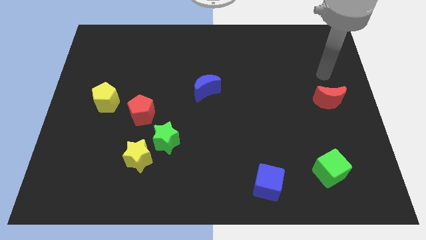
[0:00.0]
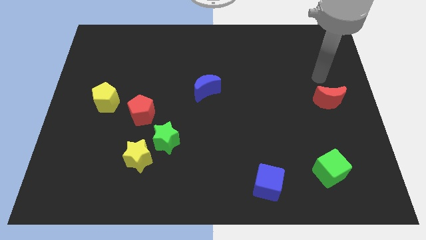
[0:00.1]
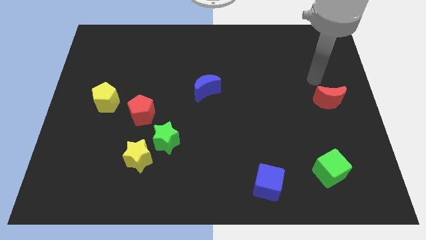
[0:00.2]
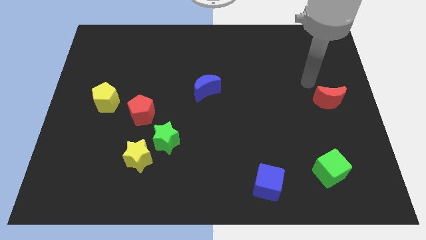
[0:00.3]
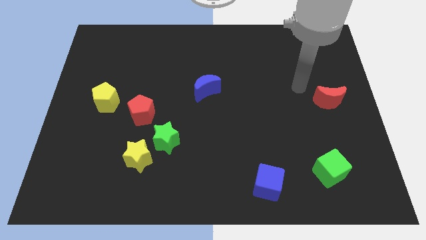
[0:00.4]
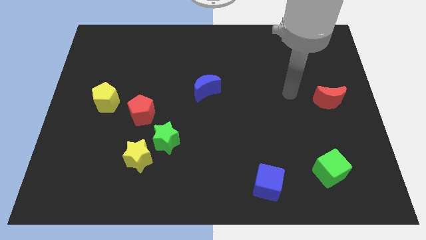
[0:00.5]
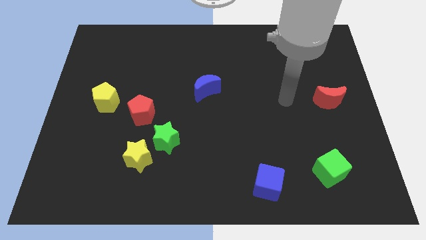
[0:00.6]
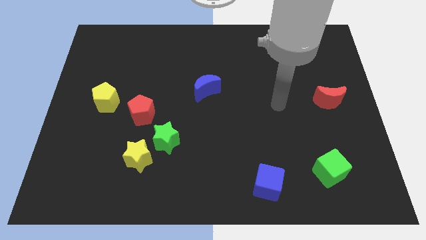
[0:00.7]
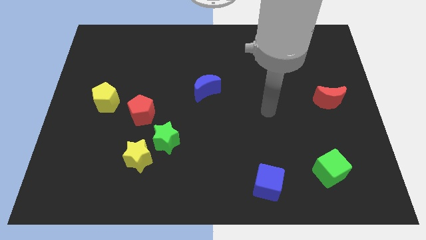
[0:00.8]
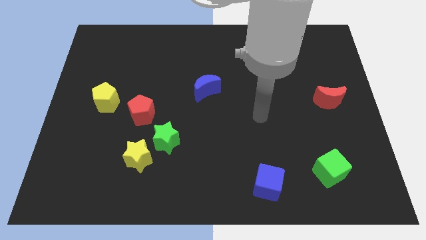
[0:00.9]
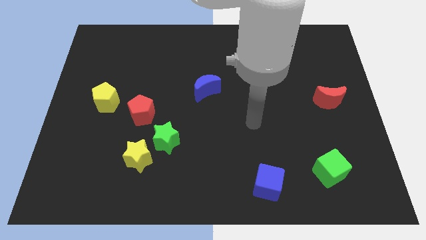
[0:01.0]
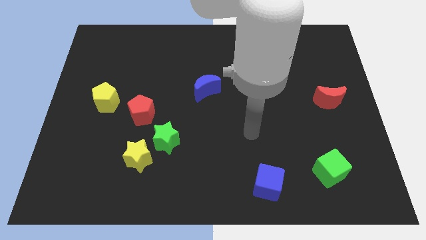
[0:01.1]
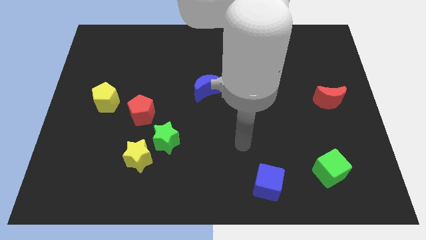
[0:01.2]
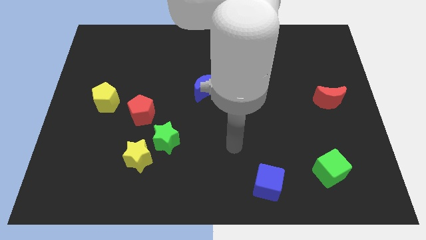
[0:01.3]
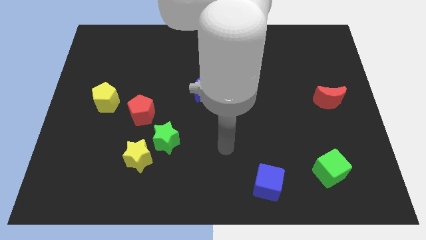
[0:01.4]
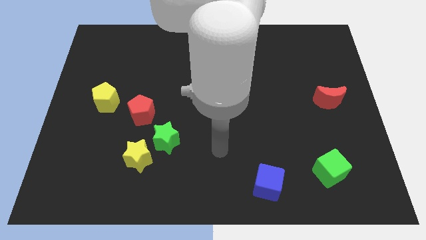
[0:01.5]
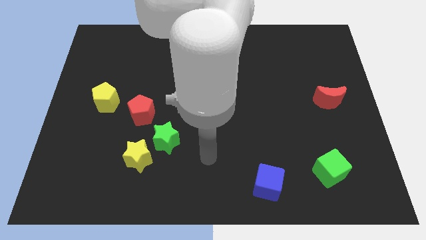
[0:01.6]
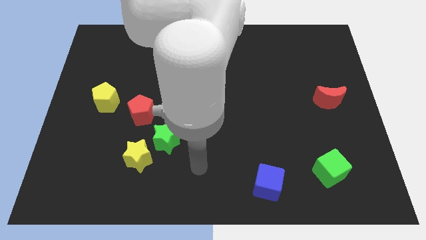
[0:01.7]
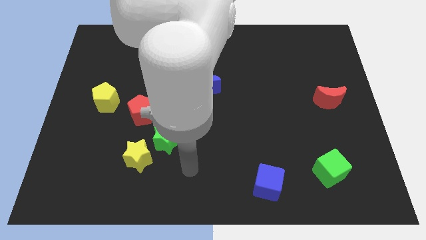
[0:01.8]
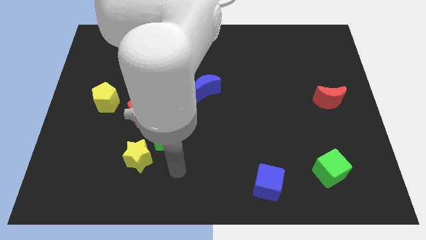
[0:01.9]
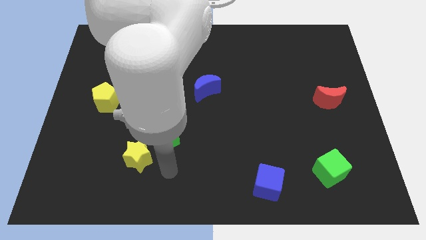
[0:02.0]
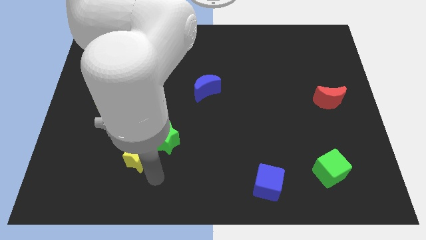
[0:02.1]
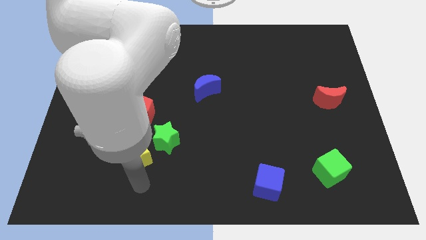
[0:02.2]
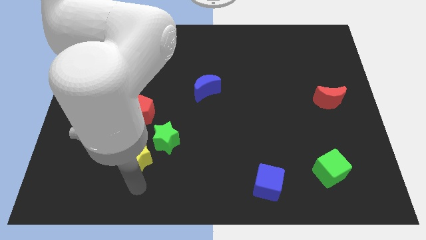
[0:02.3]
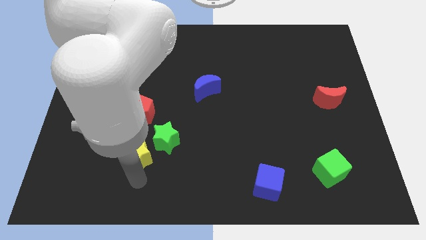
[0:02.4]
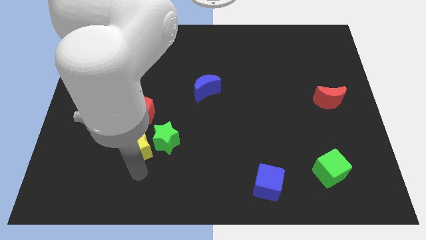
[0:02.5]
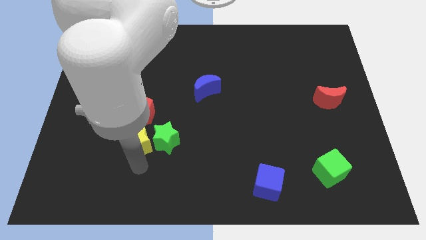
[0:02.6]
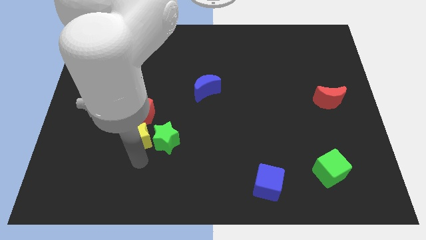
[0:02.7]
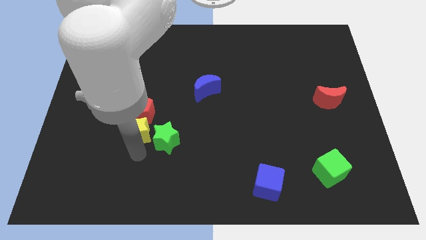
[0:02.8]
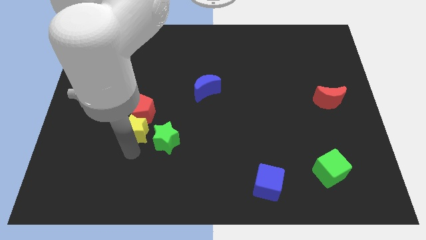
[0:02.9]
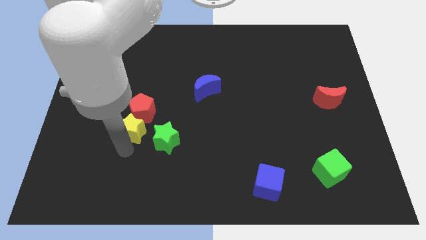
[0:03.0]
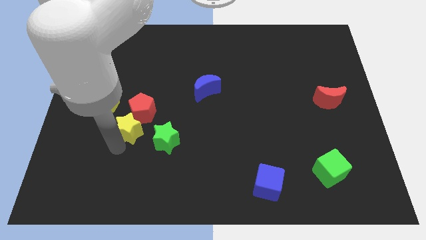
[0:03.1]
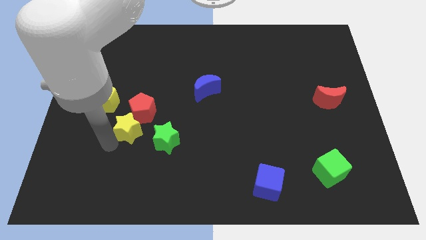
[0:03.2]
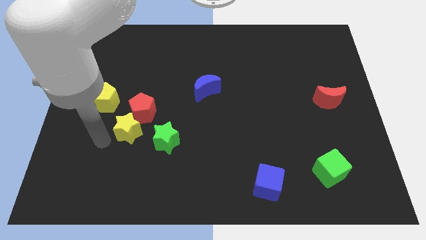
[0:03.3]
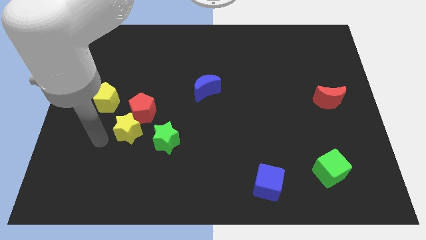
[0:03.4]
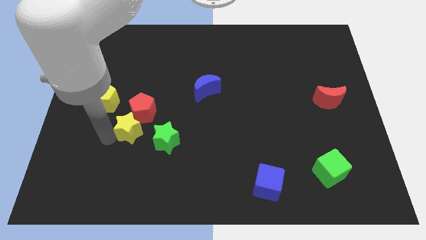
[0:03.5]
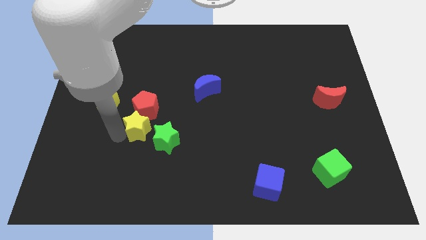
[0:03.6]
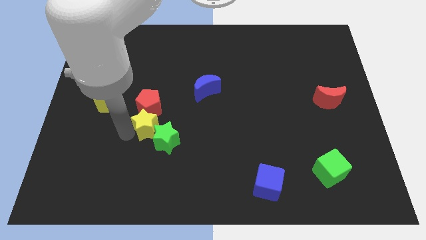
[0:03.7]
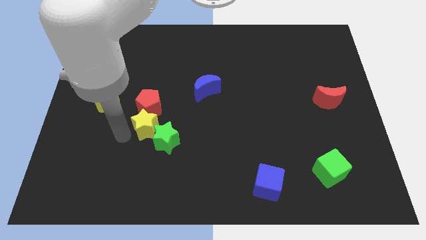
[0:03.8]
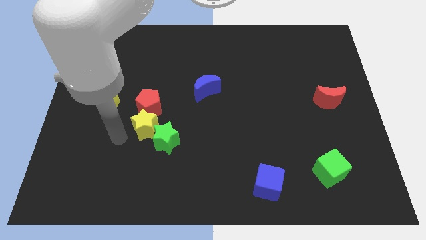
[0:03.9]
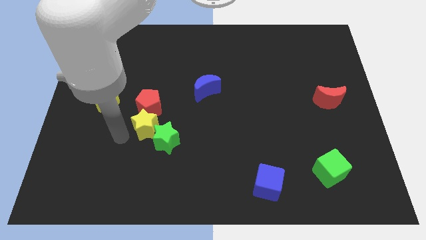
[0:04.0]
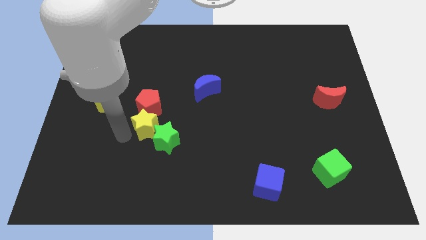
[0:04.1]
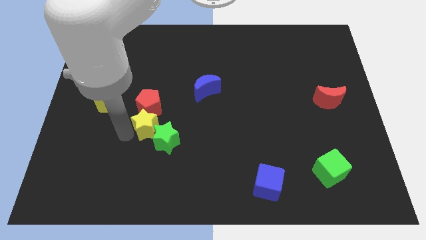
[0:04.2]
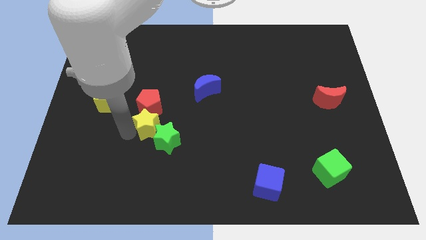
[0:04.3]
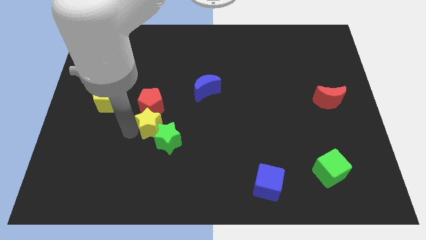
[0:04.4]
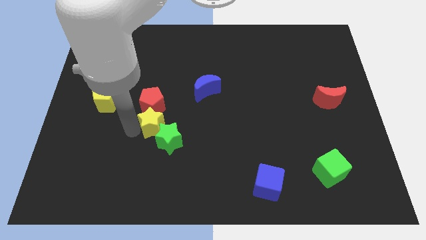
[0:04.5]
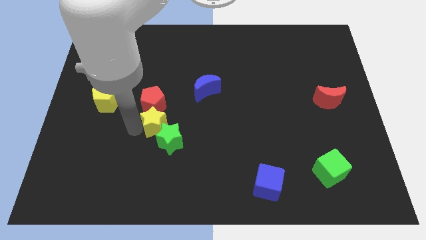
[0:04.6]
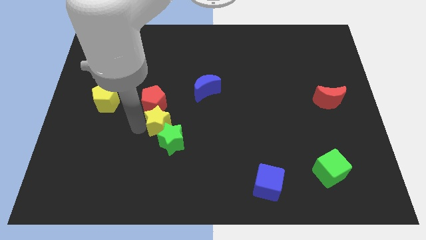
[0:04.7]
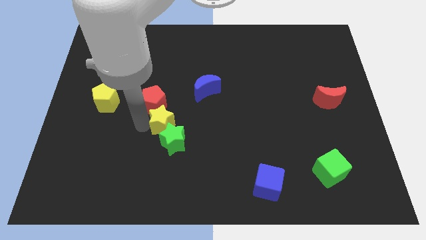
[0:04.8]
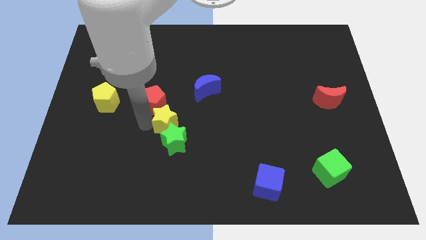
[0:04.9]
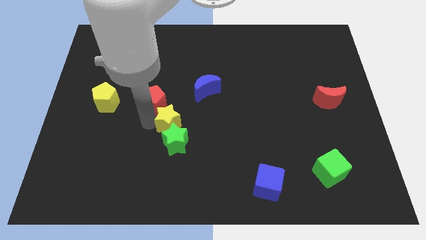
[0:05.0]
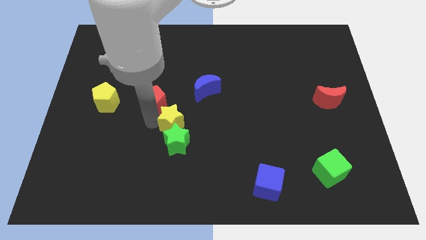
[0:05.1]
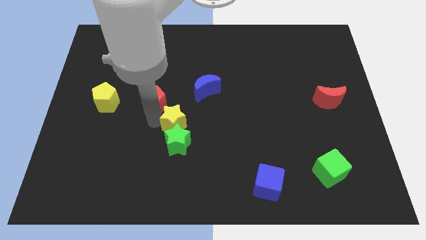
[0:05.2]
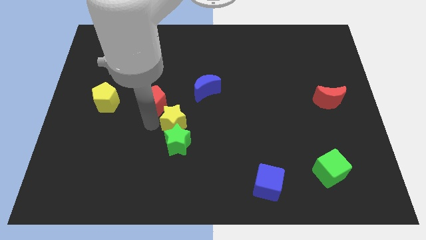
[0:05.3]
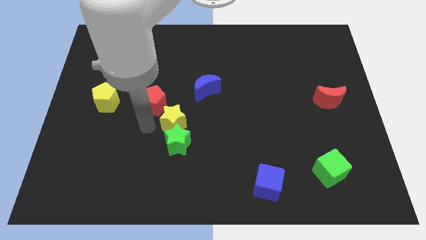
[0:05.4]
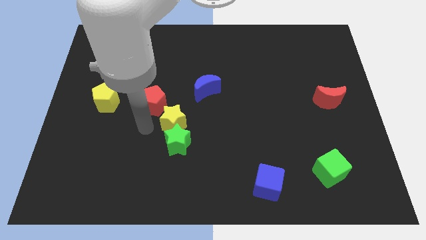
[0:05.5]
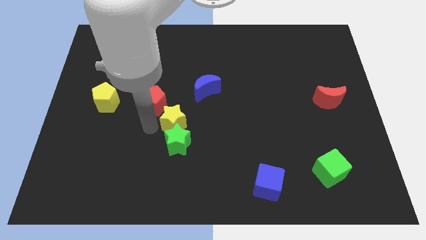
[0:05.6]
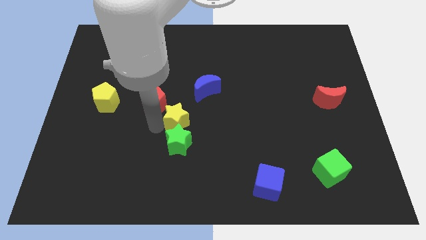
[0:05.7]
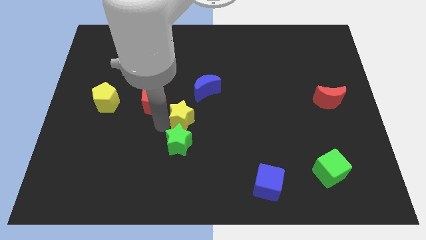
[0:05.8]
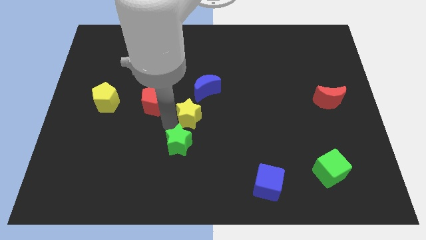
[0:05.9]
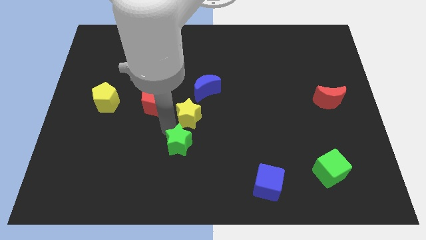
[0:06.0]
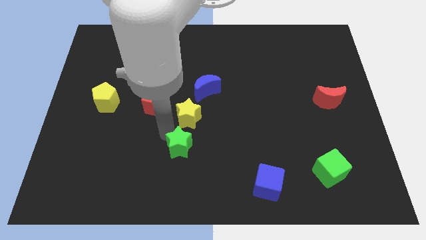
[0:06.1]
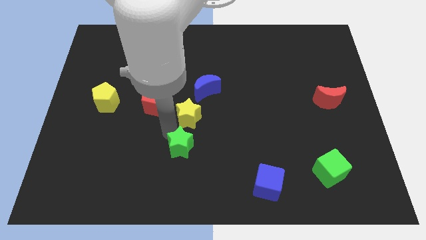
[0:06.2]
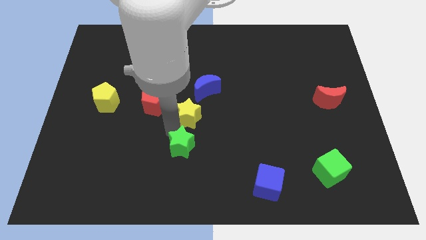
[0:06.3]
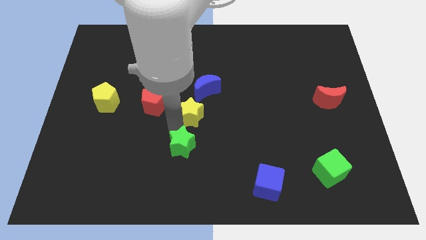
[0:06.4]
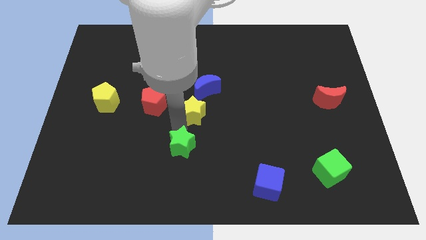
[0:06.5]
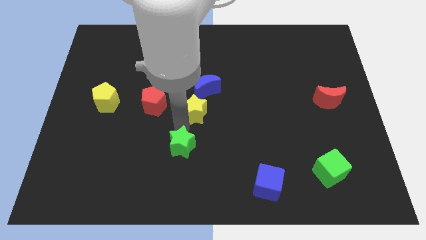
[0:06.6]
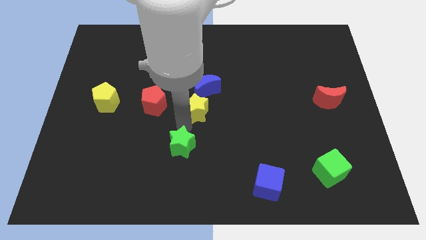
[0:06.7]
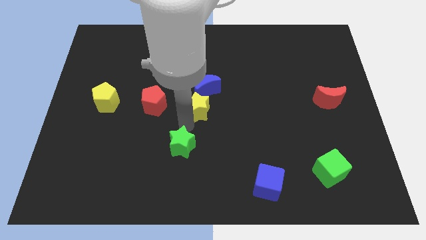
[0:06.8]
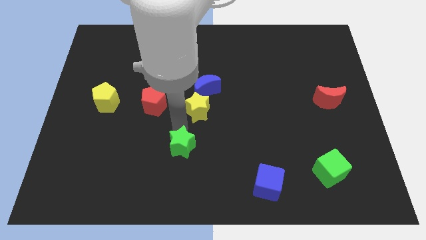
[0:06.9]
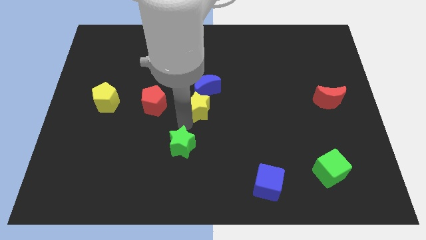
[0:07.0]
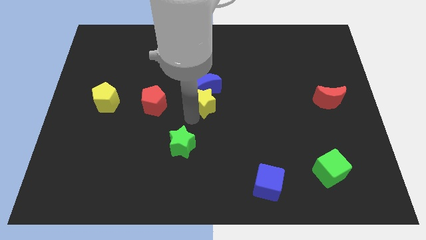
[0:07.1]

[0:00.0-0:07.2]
slide the yellow star up and then right

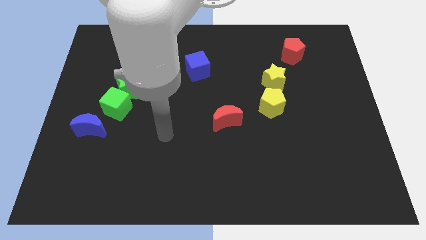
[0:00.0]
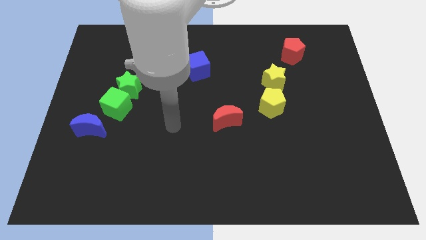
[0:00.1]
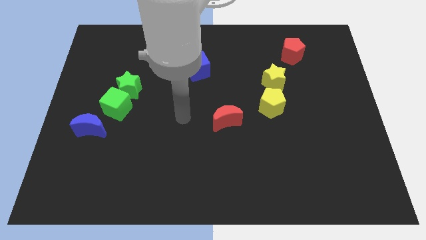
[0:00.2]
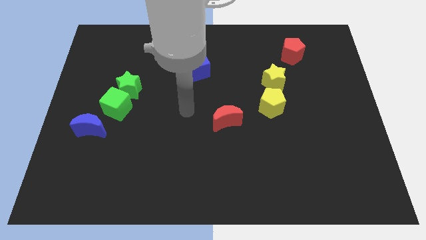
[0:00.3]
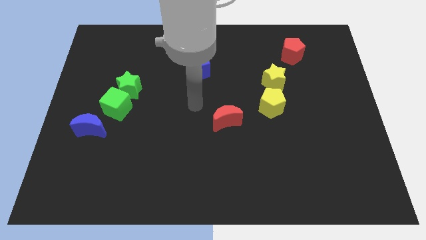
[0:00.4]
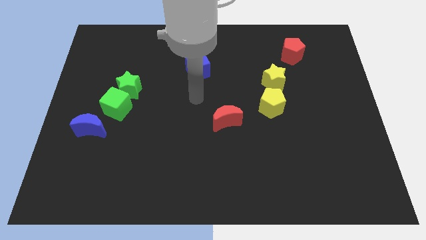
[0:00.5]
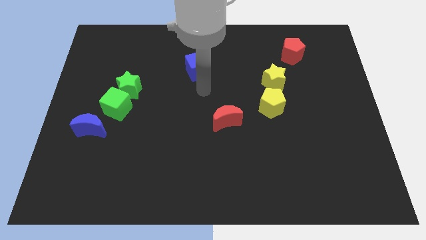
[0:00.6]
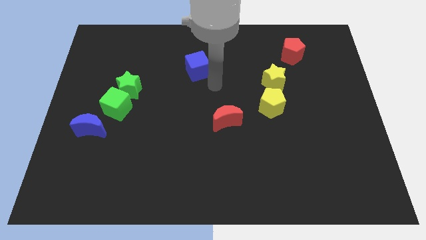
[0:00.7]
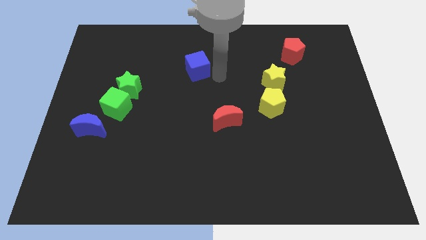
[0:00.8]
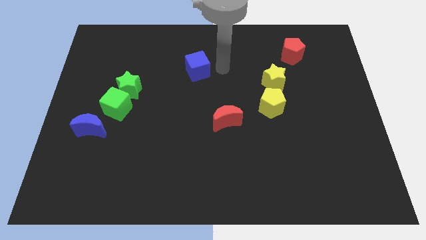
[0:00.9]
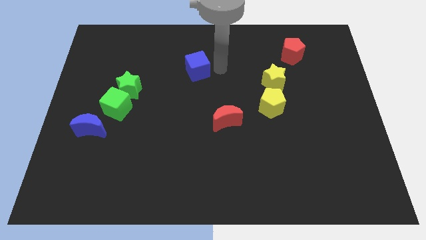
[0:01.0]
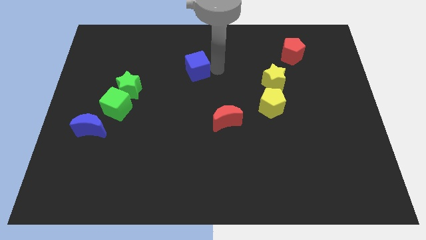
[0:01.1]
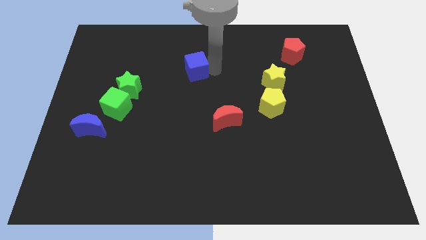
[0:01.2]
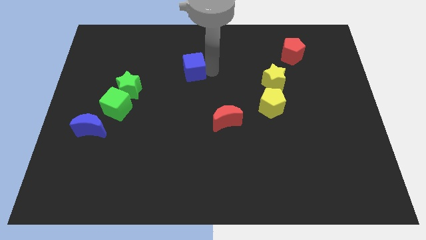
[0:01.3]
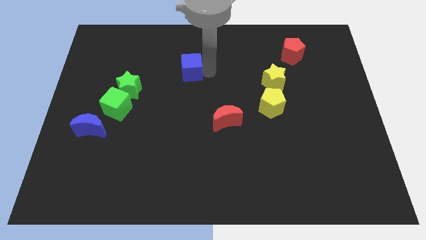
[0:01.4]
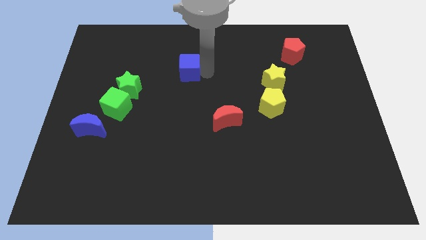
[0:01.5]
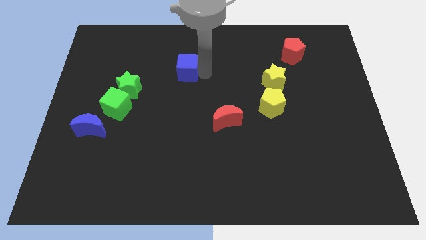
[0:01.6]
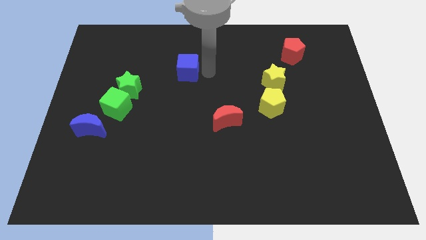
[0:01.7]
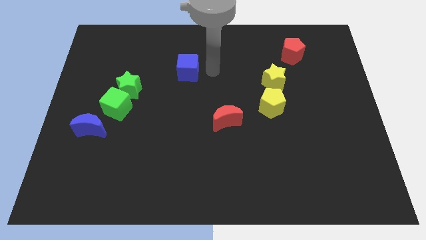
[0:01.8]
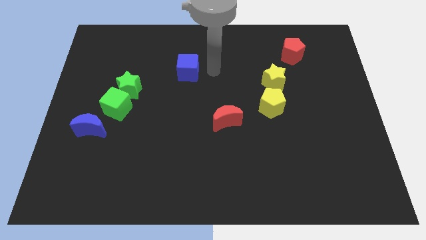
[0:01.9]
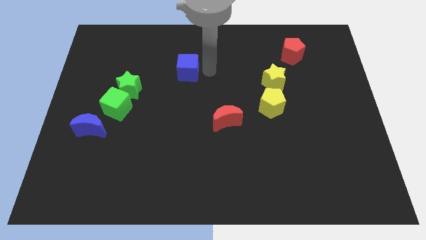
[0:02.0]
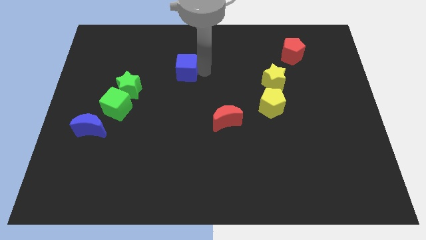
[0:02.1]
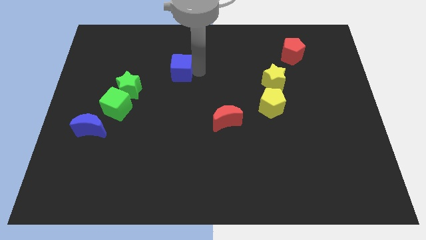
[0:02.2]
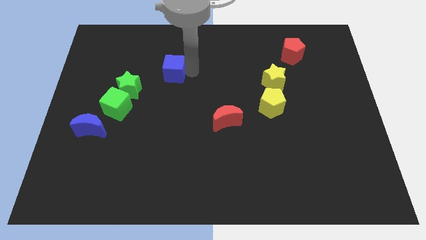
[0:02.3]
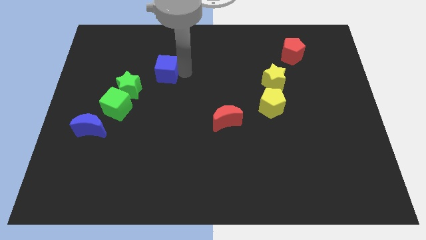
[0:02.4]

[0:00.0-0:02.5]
slightly slide the blue cube to the left
